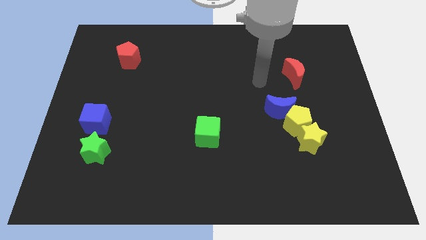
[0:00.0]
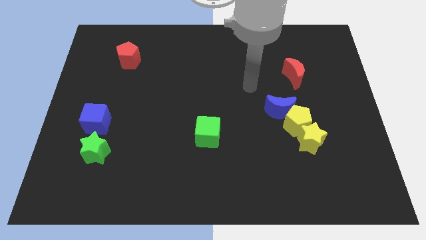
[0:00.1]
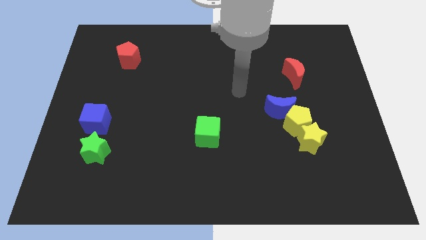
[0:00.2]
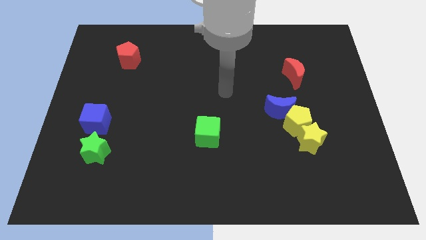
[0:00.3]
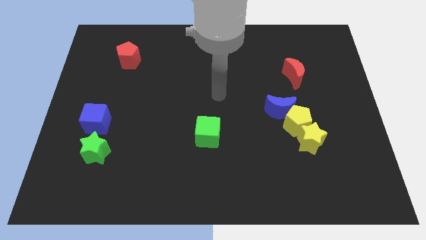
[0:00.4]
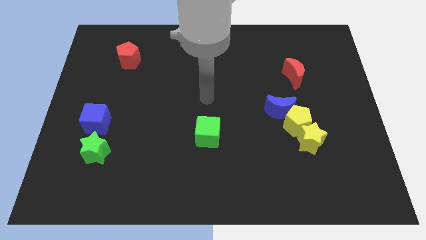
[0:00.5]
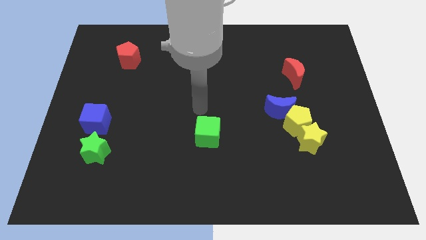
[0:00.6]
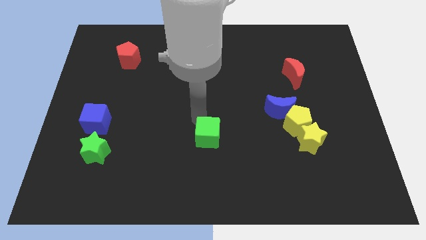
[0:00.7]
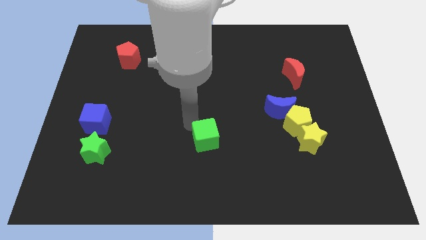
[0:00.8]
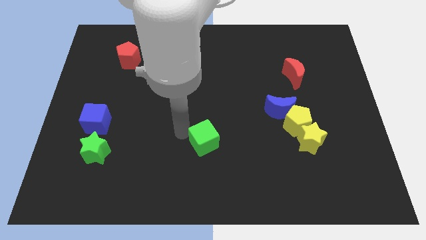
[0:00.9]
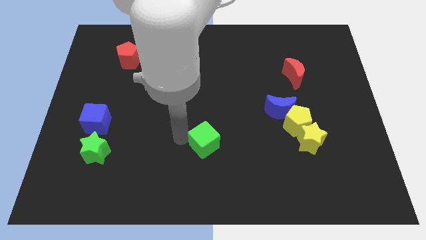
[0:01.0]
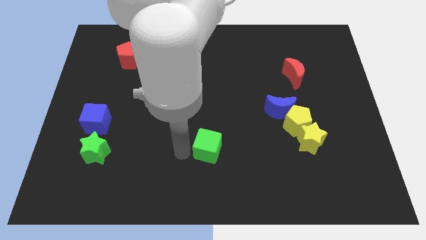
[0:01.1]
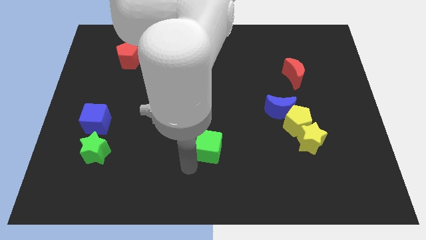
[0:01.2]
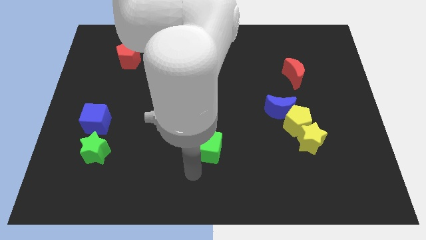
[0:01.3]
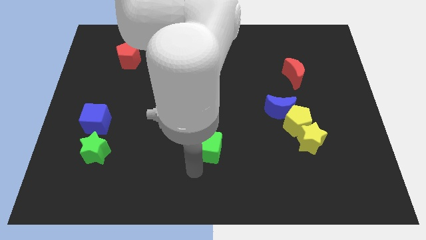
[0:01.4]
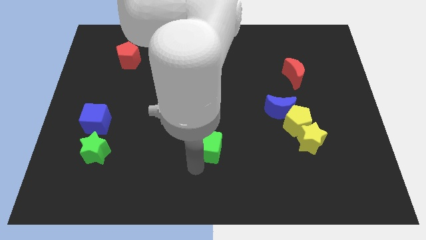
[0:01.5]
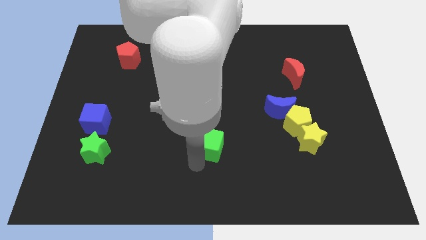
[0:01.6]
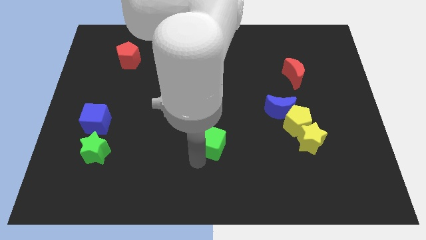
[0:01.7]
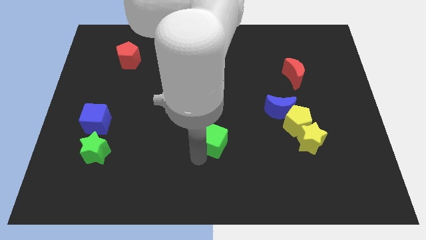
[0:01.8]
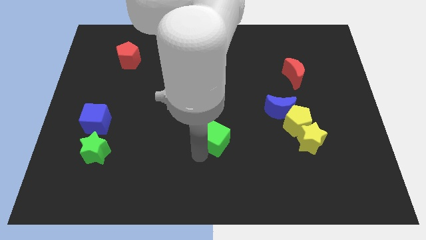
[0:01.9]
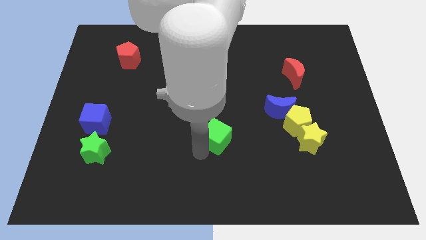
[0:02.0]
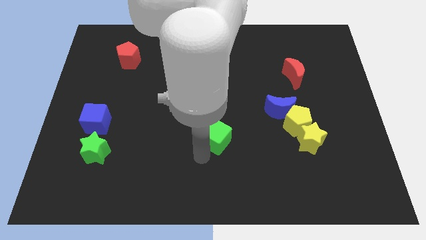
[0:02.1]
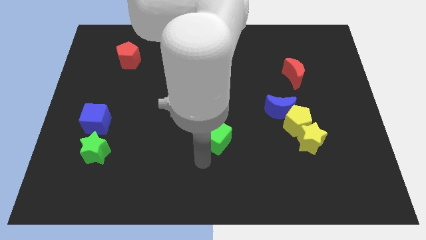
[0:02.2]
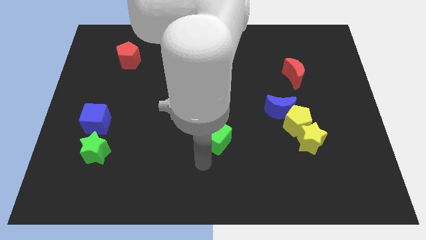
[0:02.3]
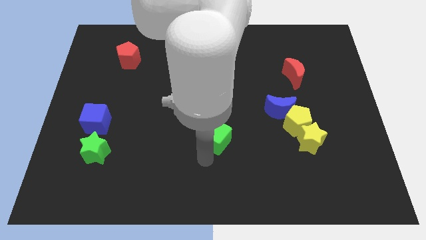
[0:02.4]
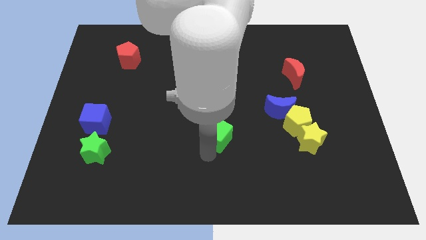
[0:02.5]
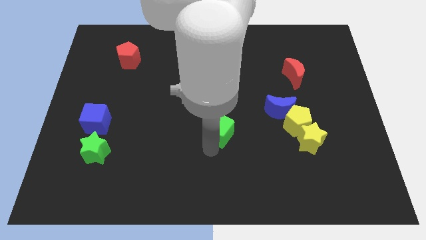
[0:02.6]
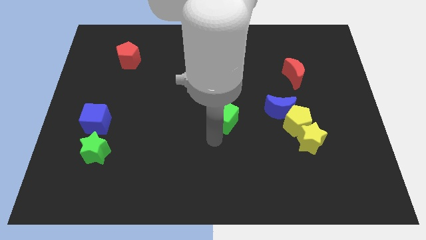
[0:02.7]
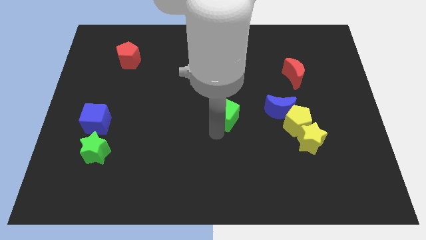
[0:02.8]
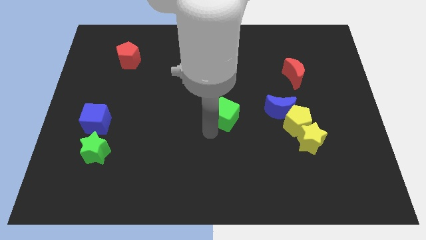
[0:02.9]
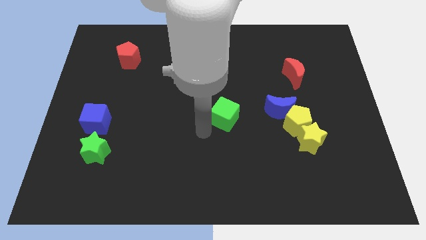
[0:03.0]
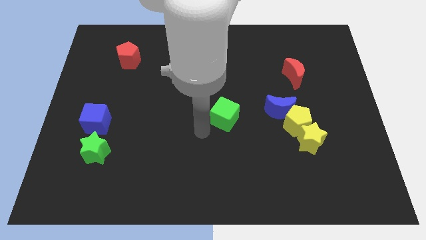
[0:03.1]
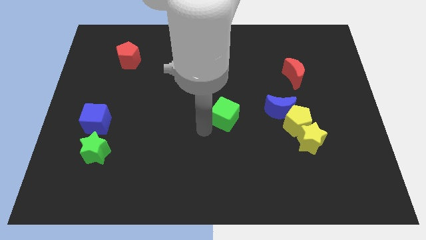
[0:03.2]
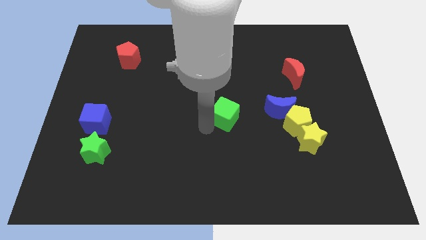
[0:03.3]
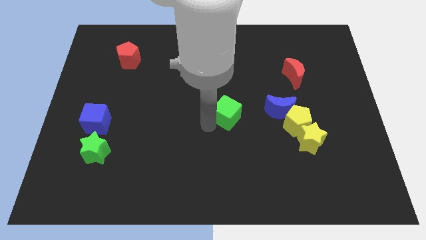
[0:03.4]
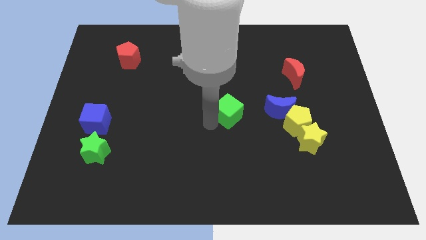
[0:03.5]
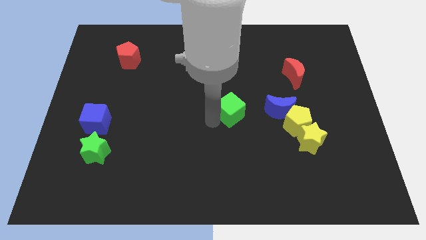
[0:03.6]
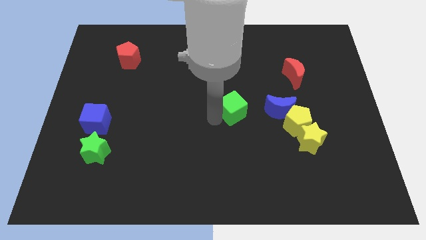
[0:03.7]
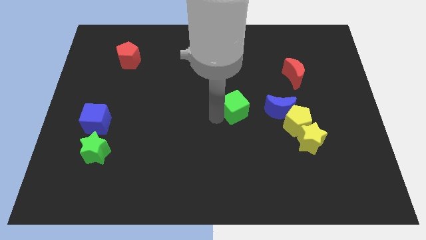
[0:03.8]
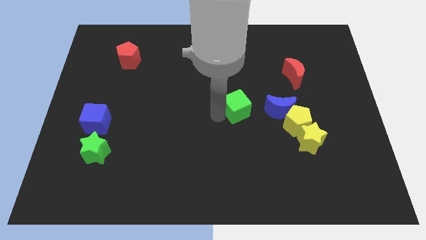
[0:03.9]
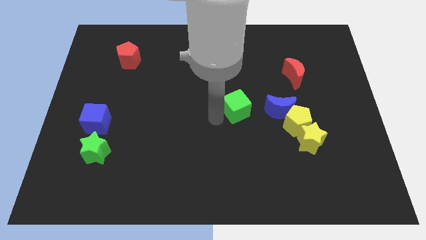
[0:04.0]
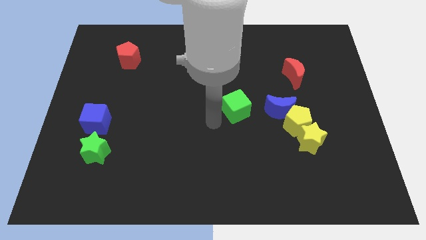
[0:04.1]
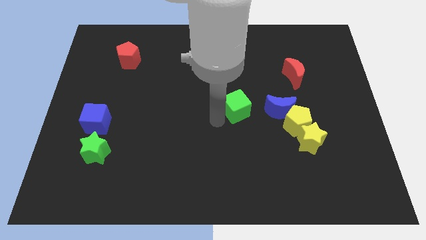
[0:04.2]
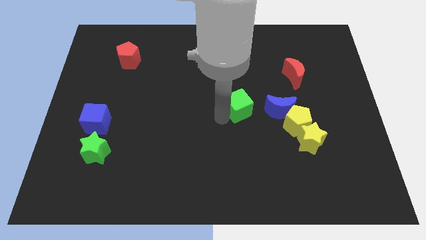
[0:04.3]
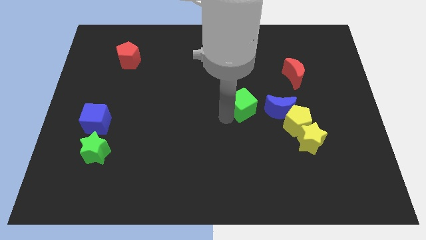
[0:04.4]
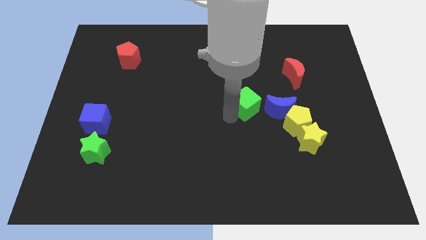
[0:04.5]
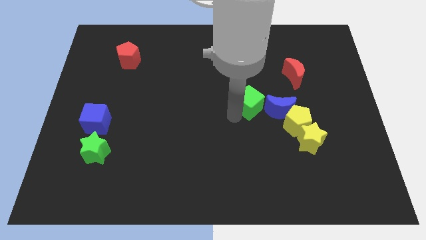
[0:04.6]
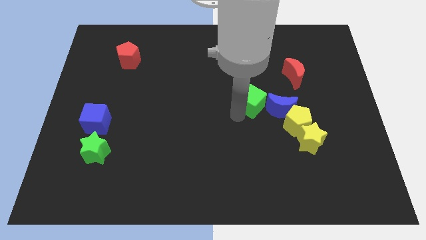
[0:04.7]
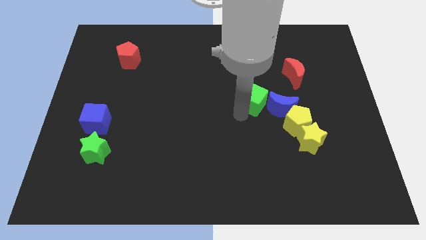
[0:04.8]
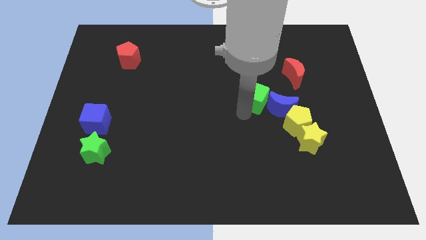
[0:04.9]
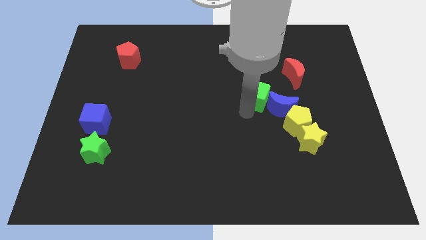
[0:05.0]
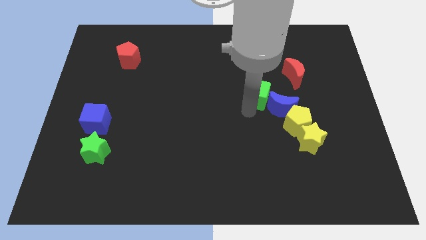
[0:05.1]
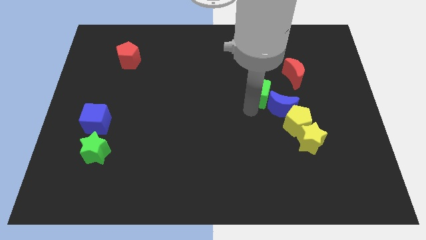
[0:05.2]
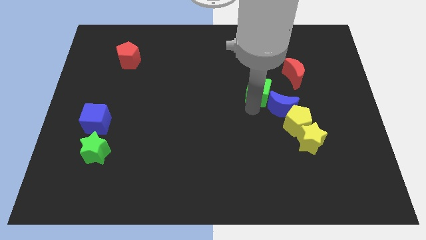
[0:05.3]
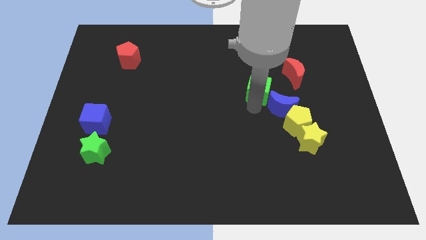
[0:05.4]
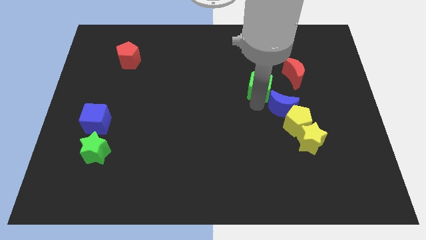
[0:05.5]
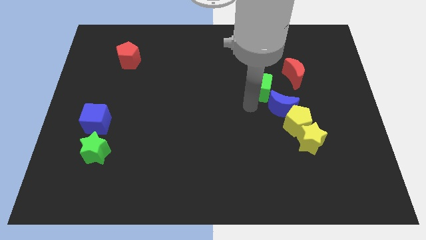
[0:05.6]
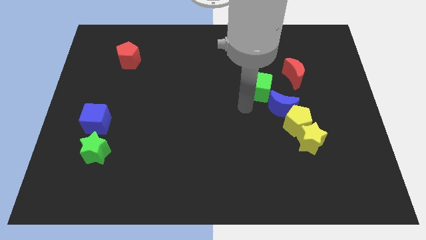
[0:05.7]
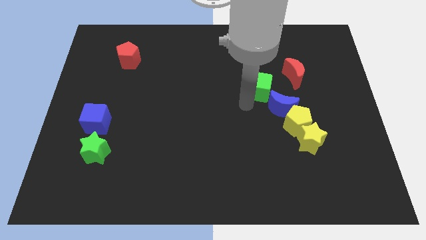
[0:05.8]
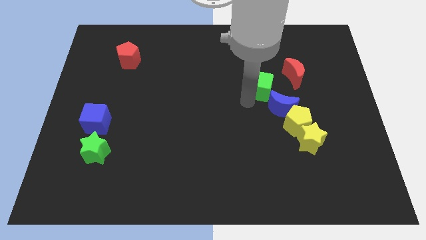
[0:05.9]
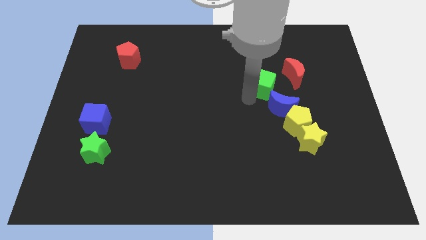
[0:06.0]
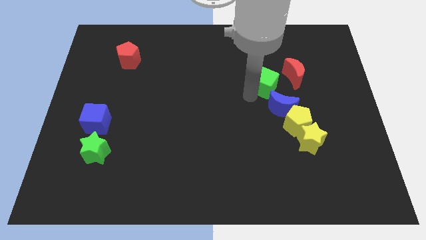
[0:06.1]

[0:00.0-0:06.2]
move the green cube up and then right

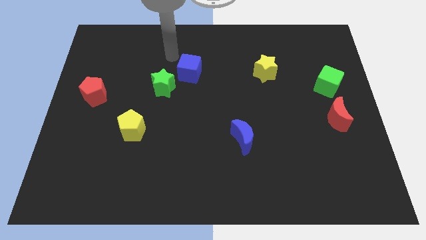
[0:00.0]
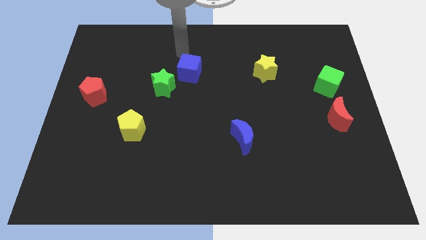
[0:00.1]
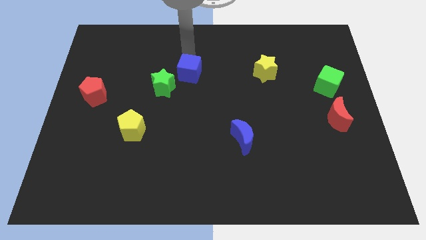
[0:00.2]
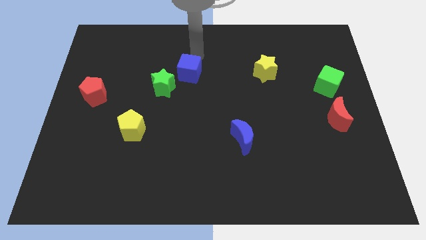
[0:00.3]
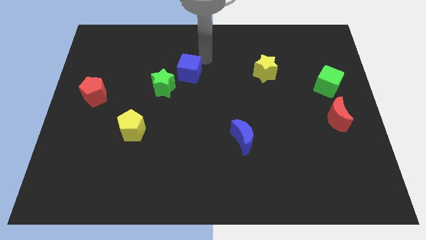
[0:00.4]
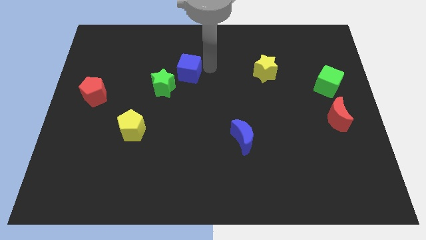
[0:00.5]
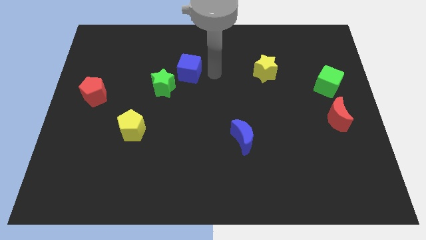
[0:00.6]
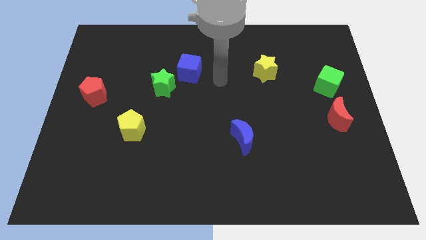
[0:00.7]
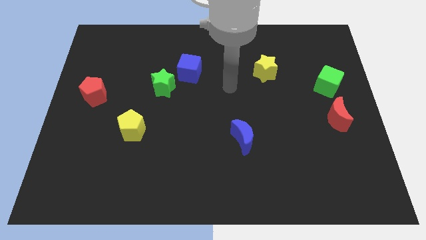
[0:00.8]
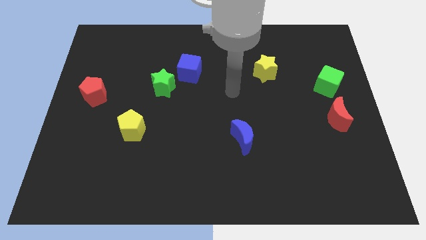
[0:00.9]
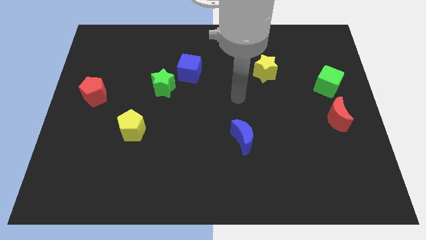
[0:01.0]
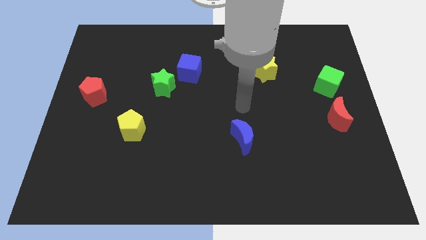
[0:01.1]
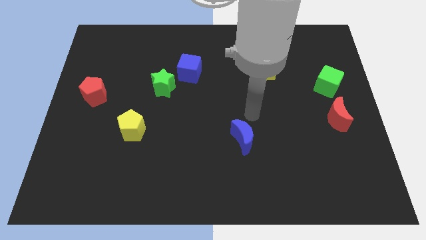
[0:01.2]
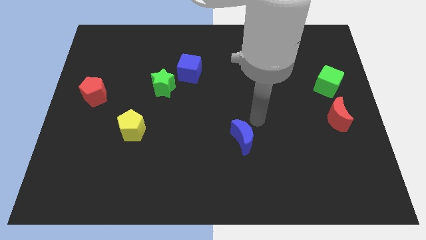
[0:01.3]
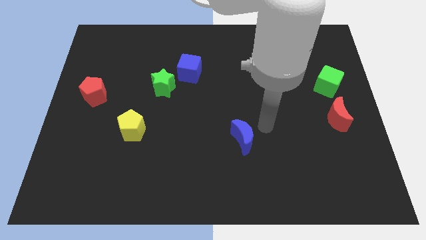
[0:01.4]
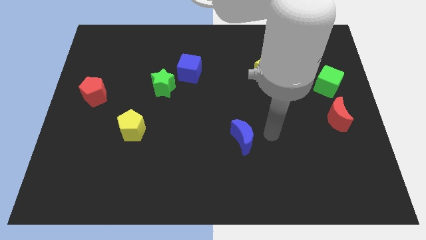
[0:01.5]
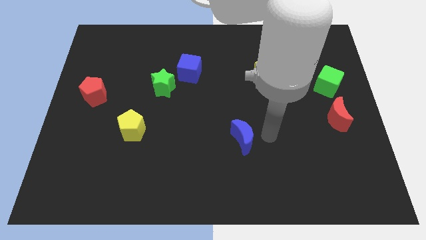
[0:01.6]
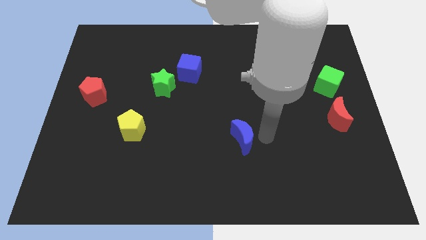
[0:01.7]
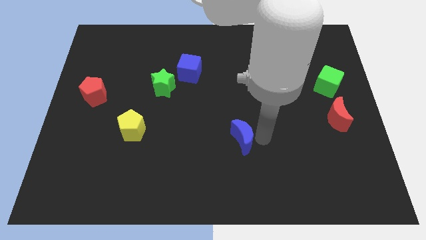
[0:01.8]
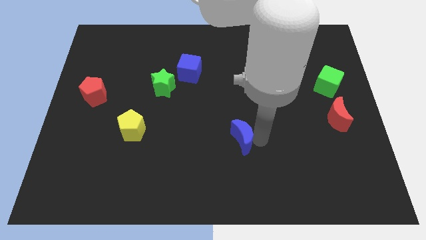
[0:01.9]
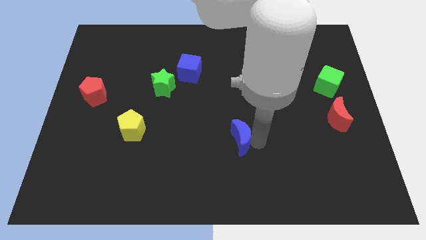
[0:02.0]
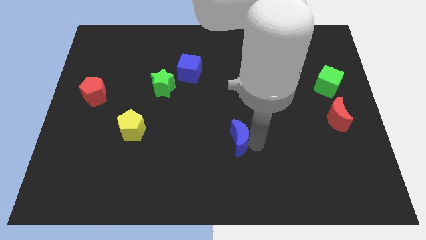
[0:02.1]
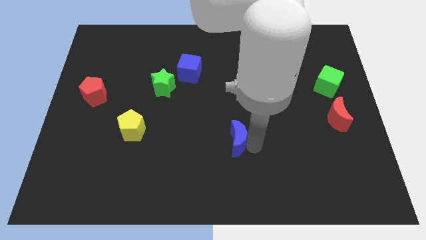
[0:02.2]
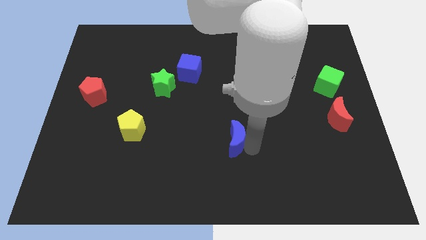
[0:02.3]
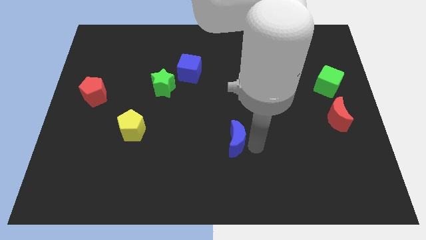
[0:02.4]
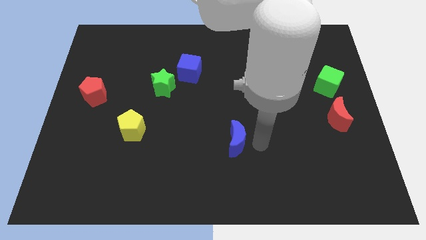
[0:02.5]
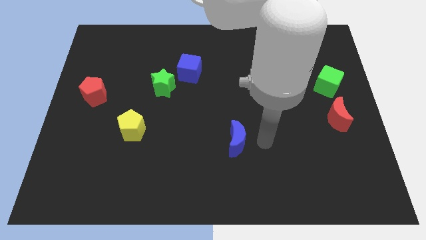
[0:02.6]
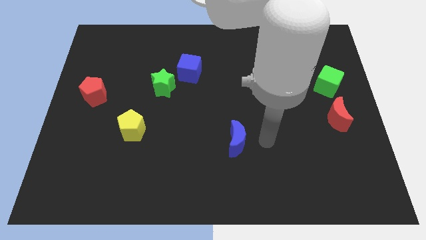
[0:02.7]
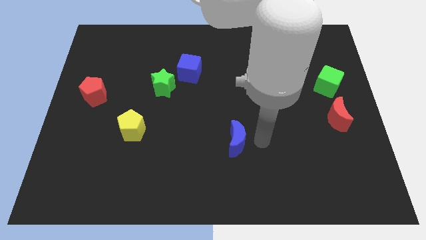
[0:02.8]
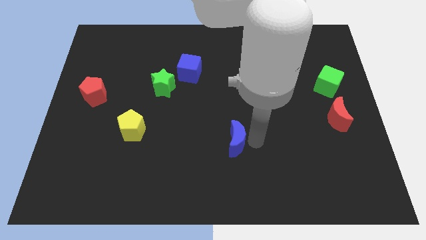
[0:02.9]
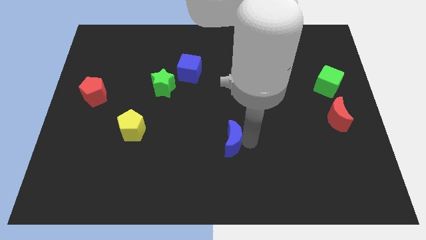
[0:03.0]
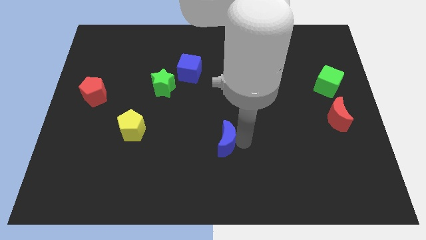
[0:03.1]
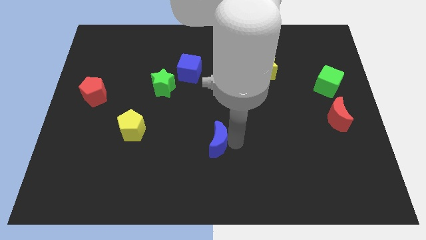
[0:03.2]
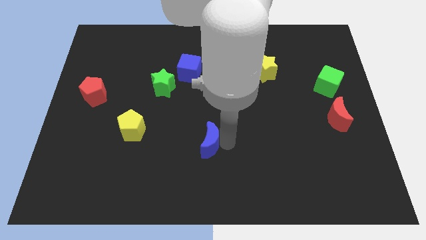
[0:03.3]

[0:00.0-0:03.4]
push the blue moon a little left
